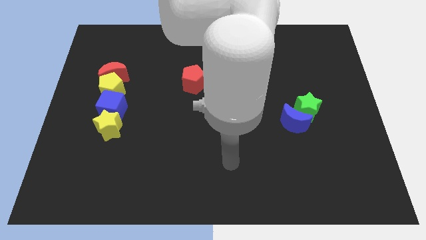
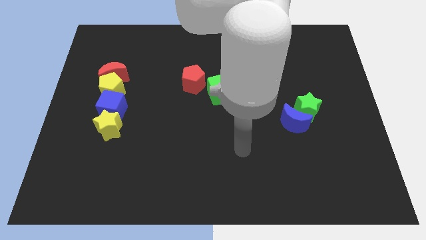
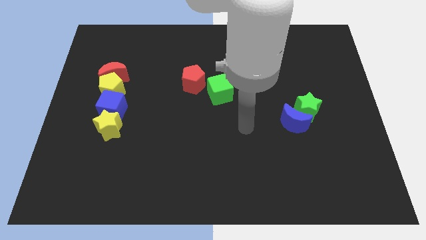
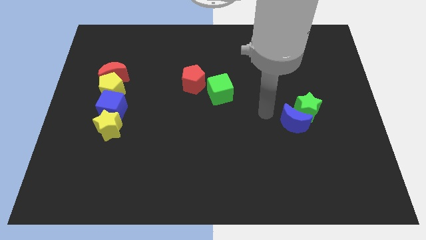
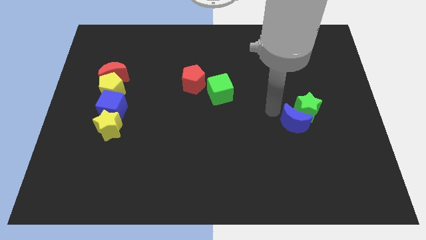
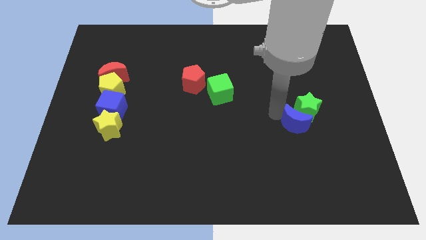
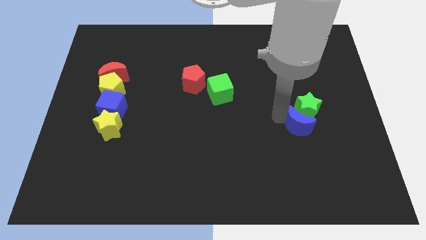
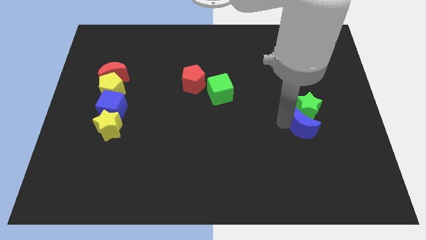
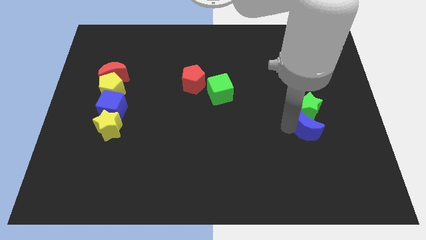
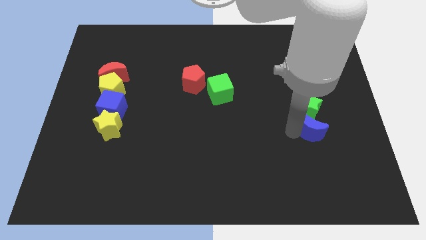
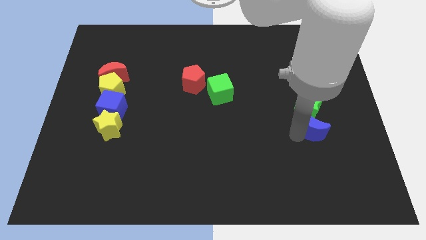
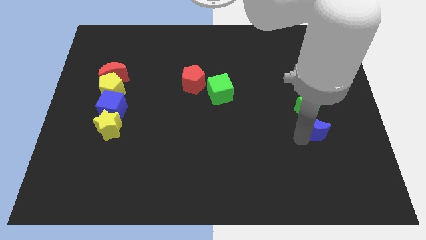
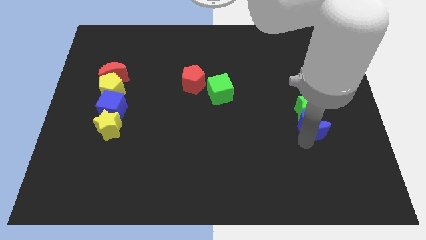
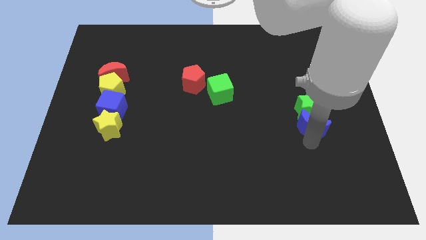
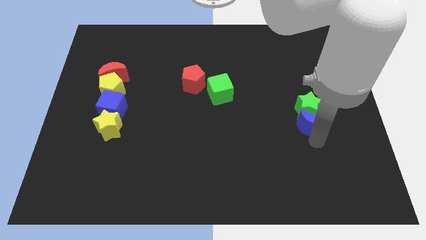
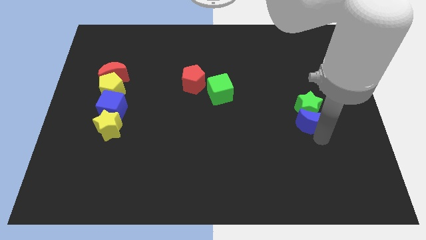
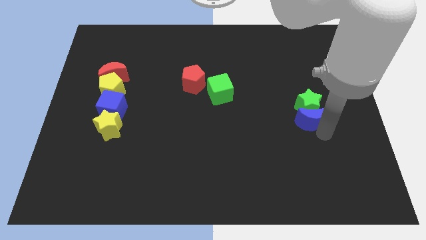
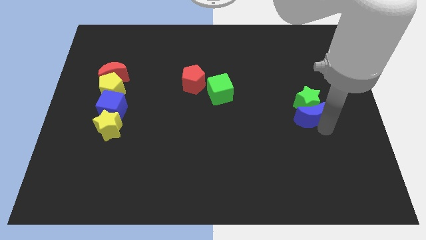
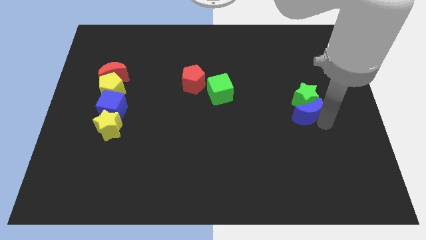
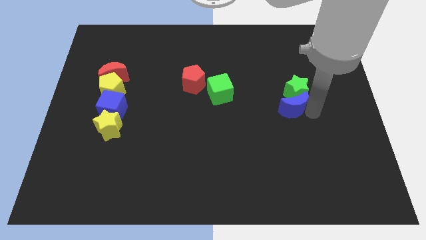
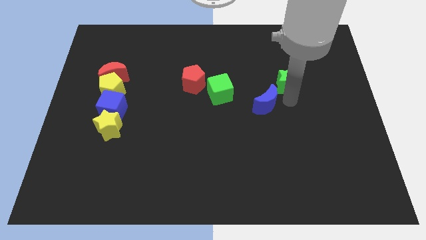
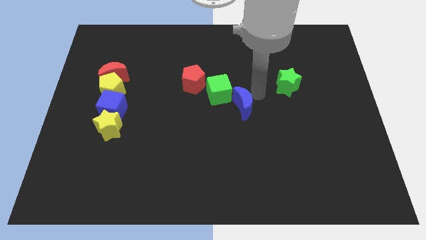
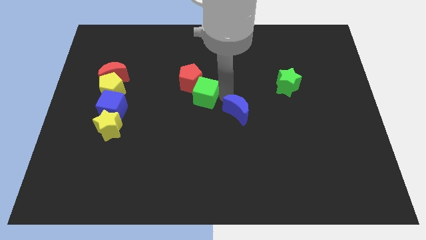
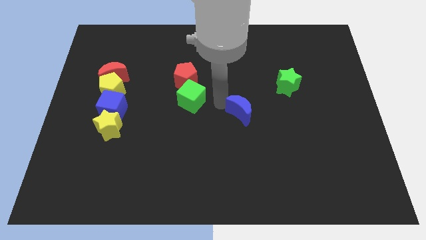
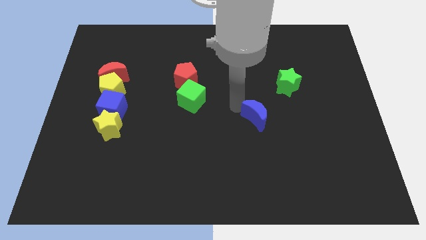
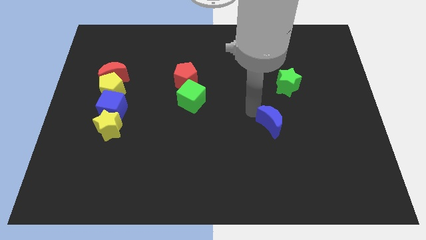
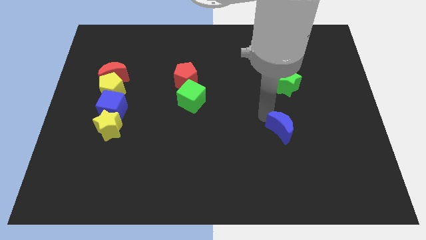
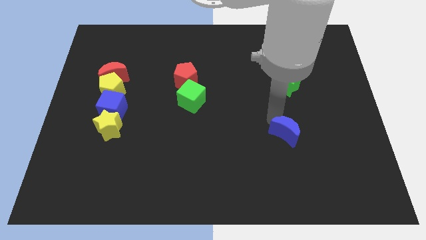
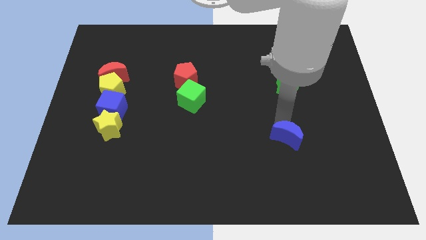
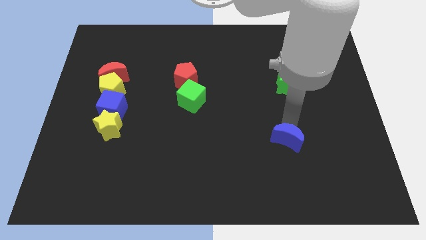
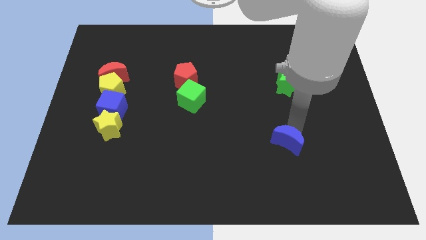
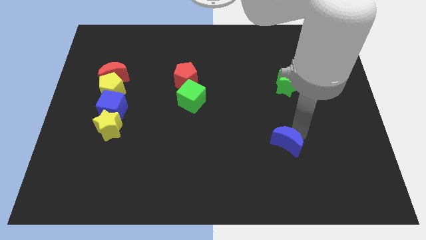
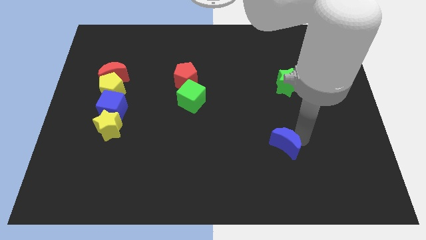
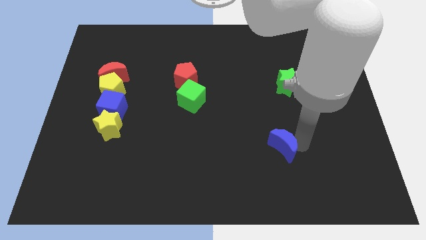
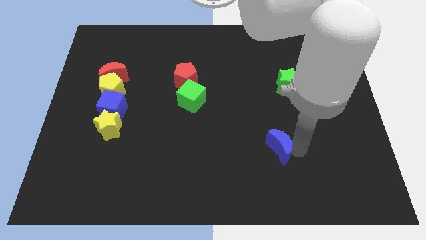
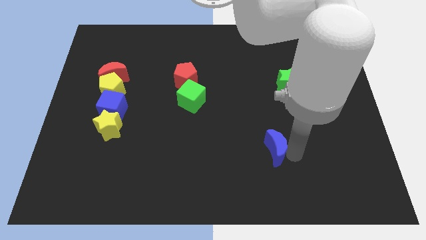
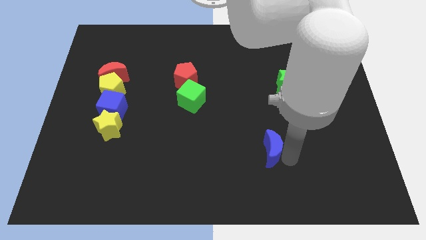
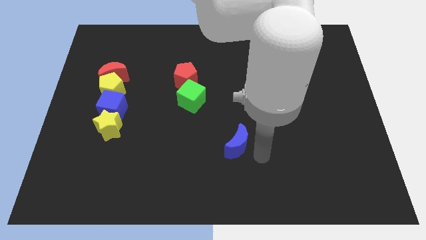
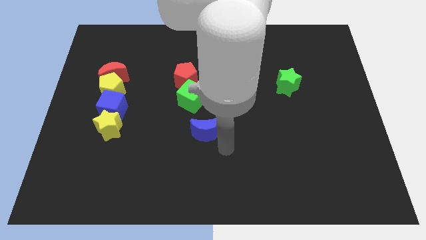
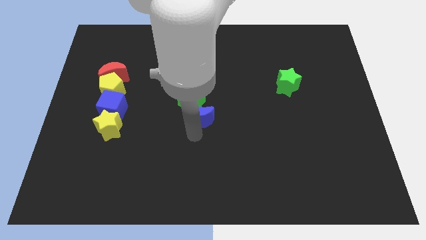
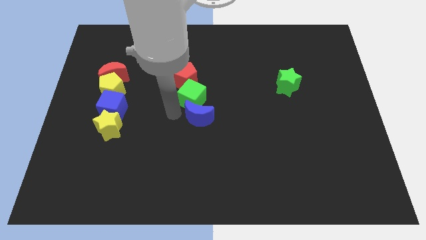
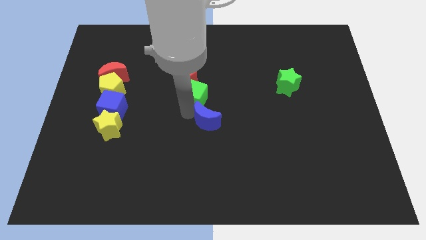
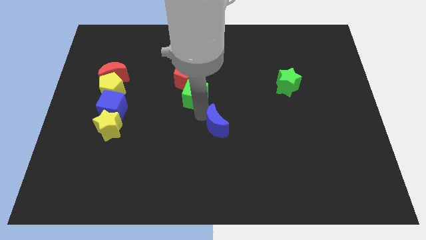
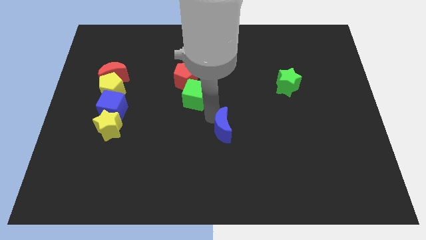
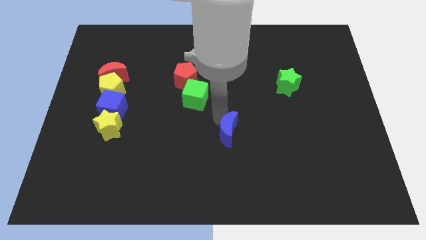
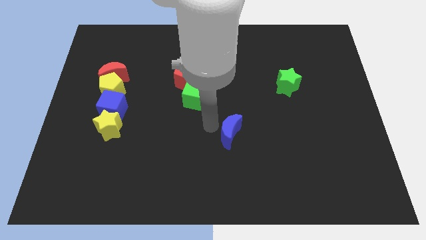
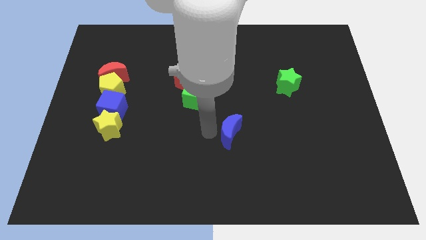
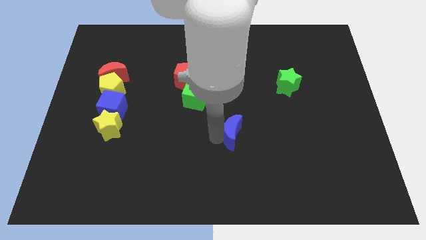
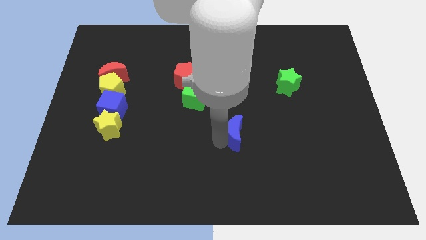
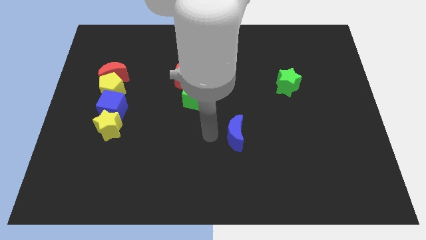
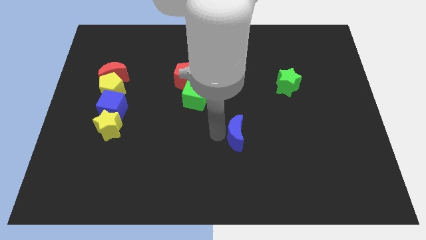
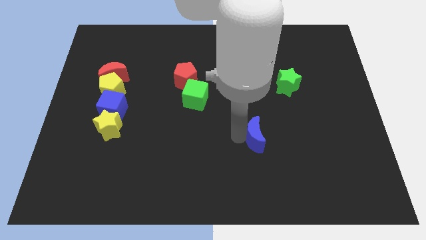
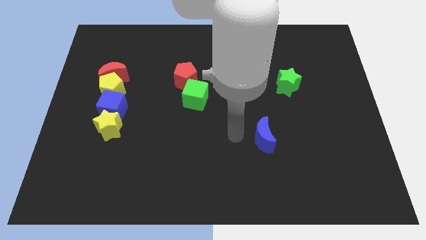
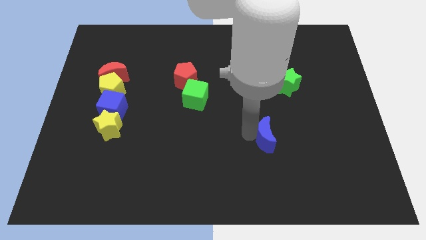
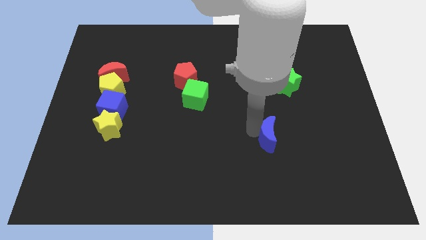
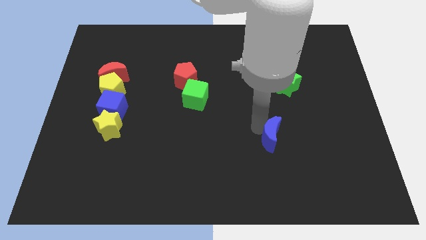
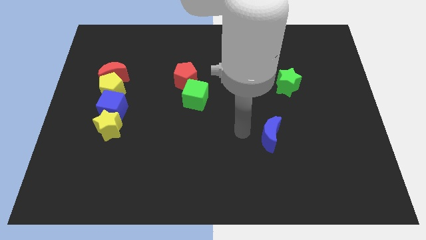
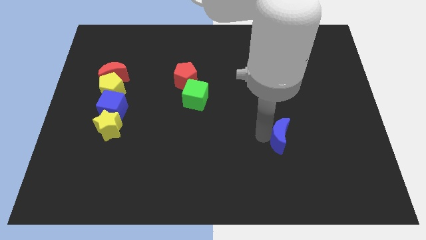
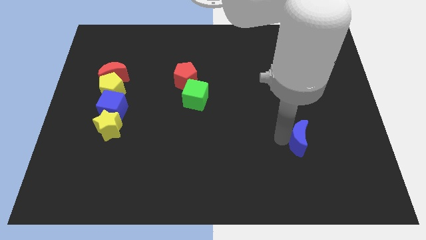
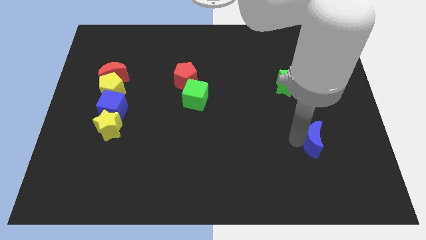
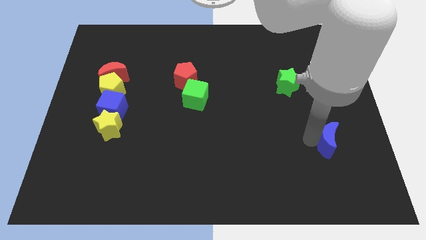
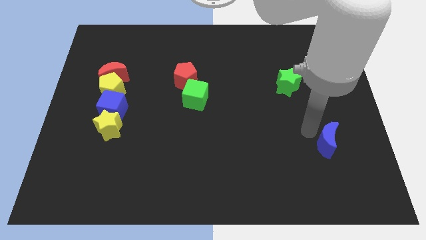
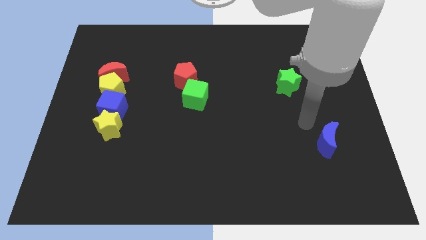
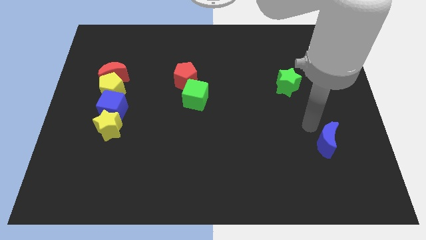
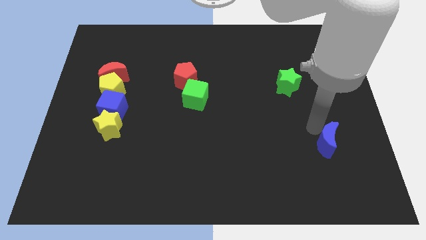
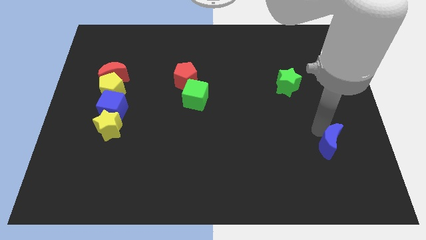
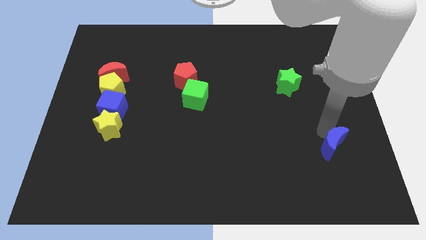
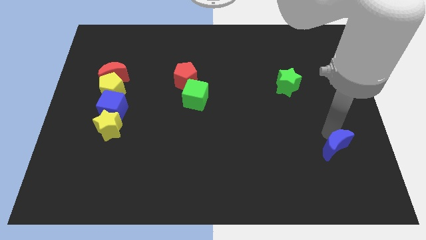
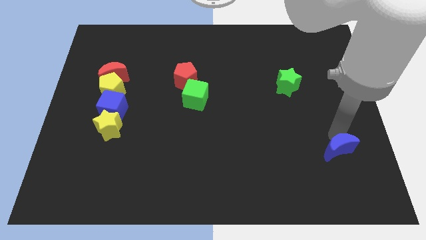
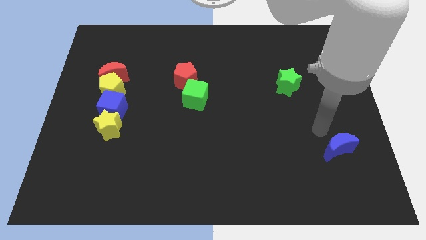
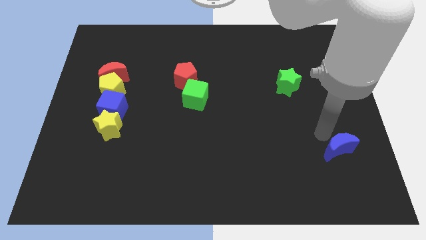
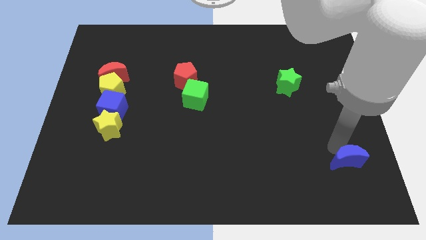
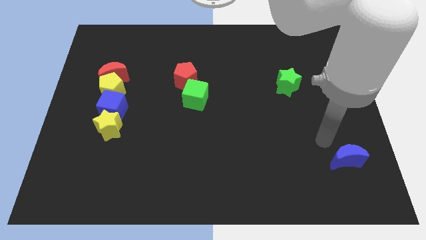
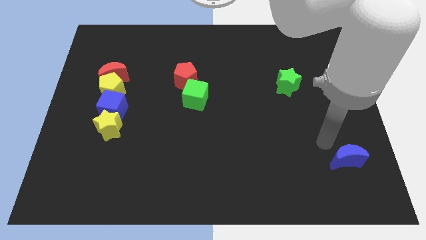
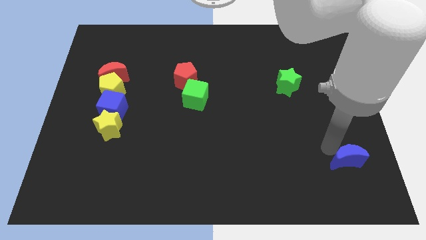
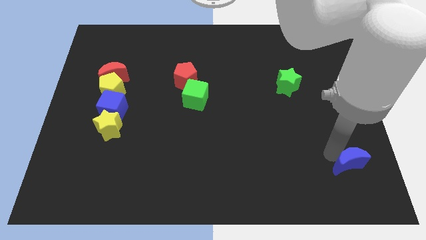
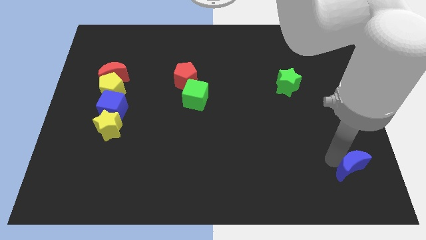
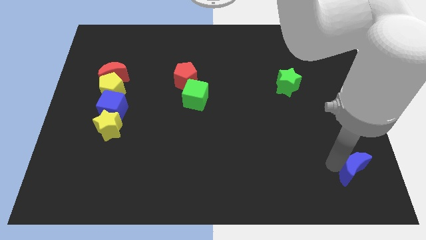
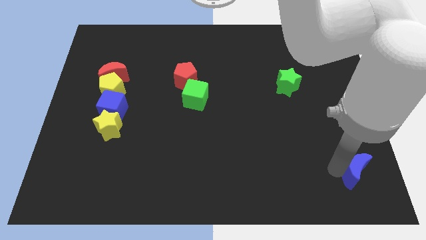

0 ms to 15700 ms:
push the blue moon to the bottom right
